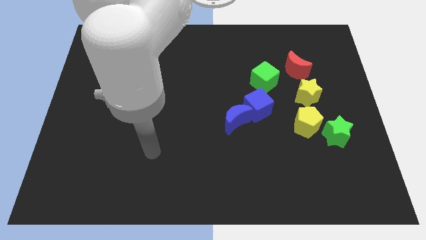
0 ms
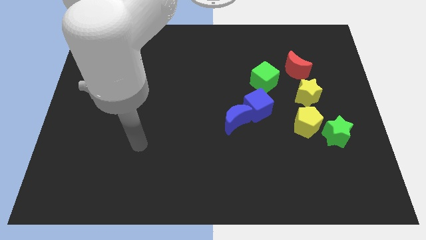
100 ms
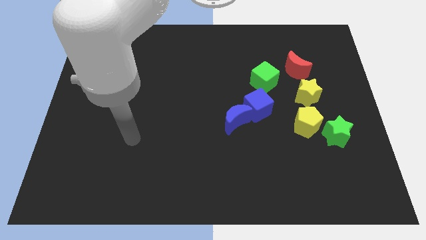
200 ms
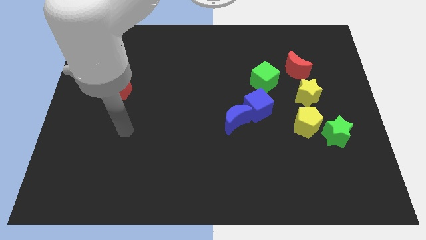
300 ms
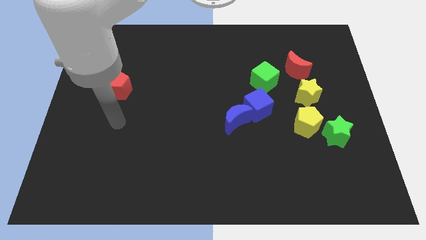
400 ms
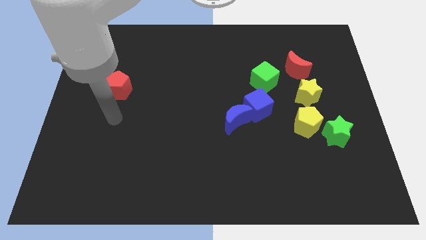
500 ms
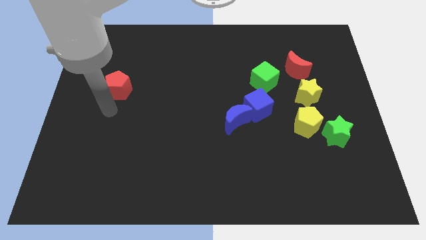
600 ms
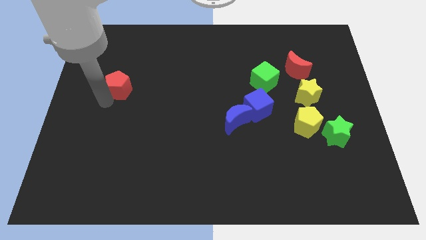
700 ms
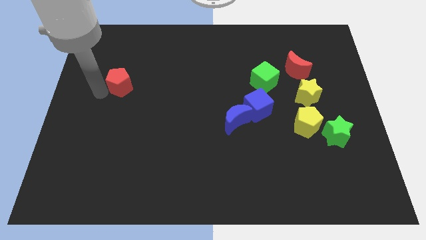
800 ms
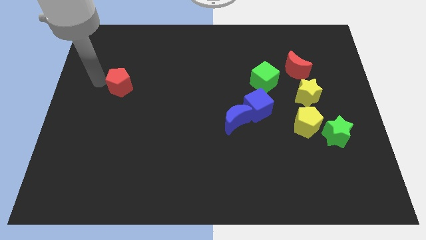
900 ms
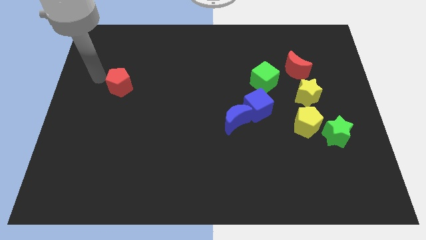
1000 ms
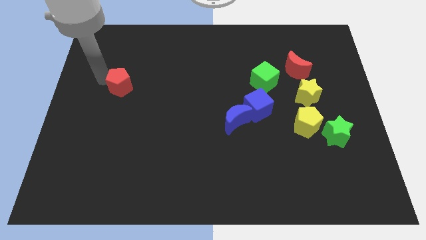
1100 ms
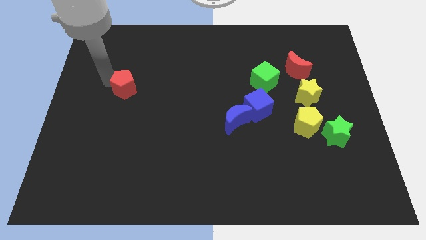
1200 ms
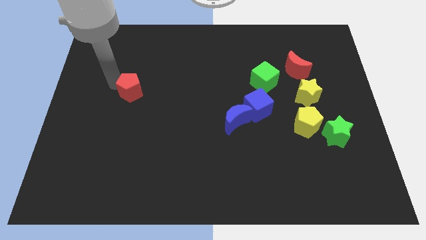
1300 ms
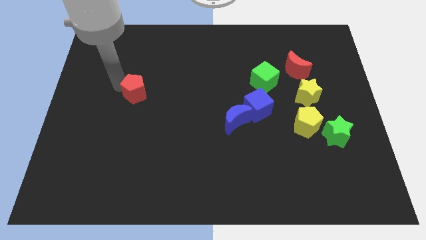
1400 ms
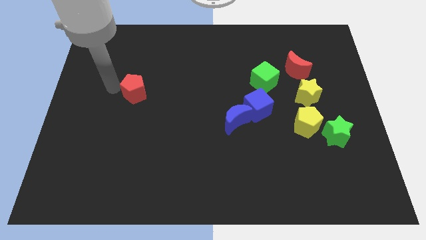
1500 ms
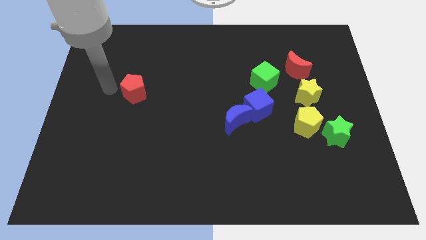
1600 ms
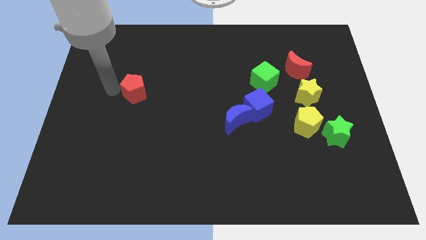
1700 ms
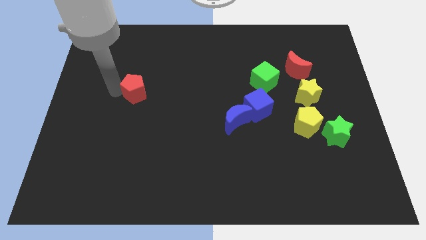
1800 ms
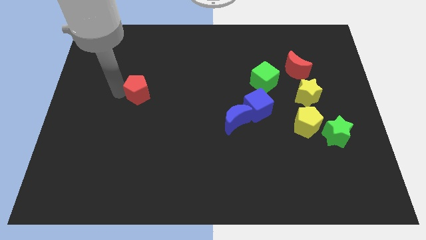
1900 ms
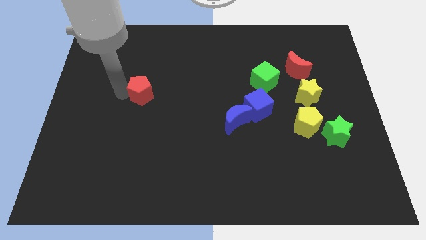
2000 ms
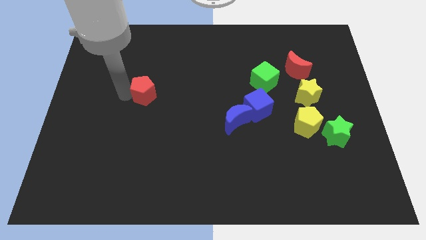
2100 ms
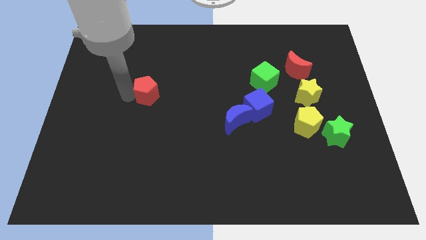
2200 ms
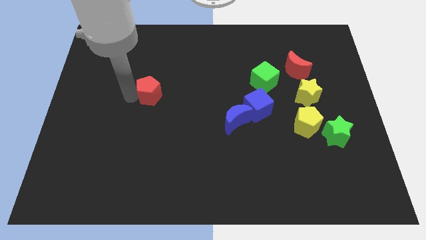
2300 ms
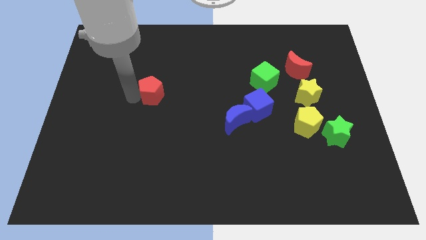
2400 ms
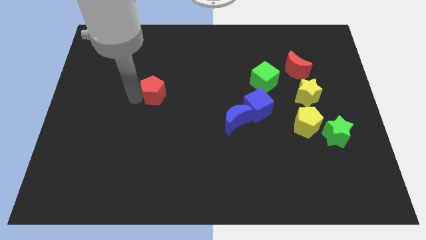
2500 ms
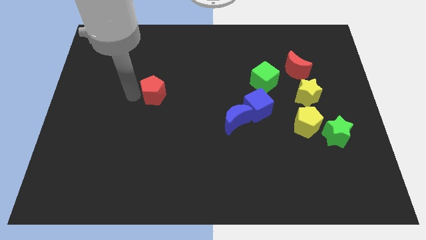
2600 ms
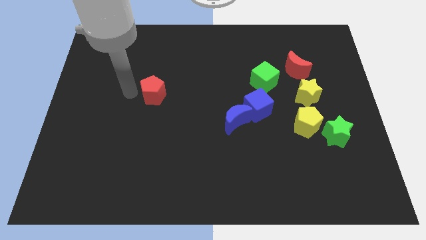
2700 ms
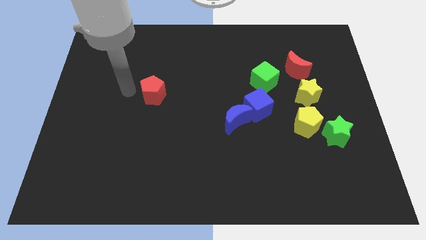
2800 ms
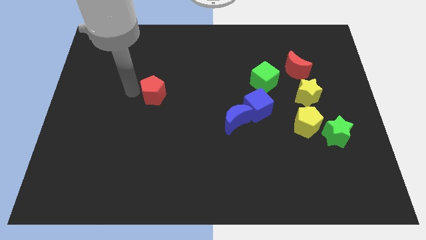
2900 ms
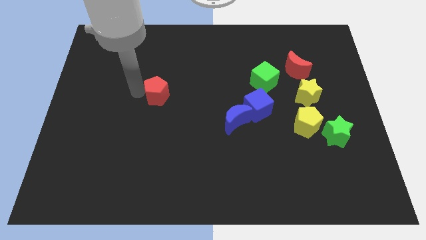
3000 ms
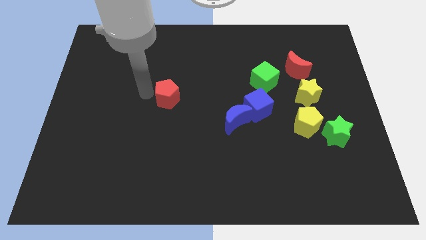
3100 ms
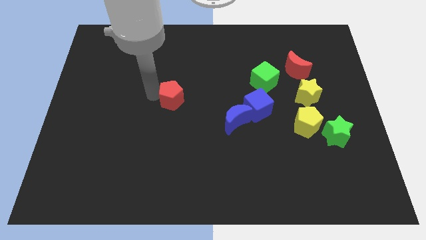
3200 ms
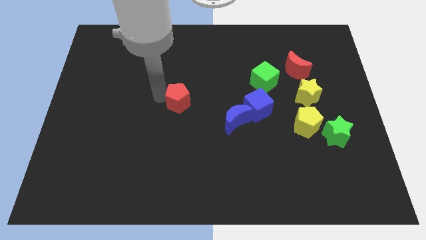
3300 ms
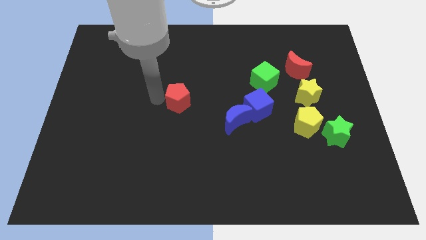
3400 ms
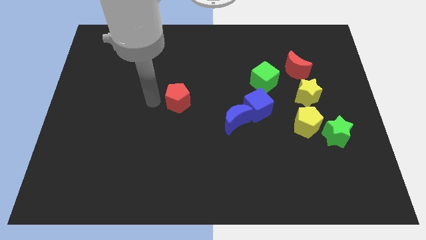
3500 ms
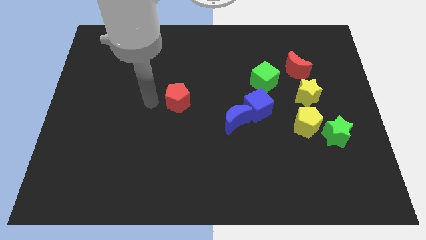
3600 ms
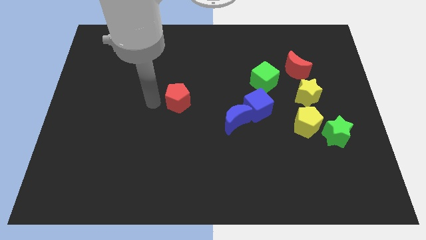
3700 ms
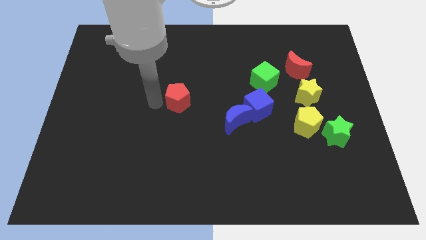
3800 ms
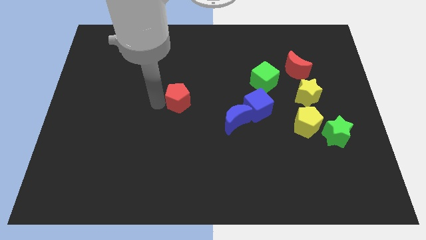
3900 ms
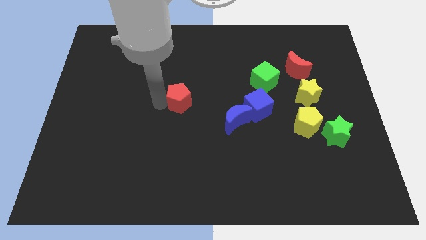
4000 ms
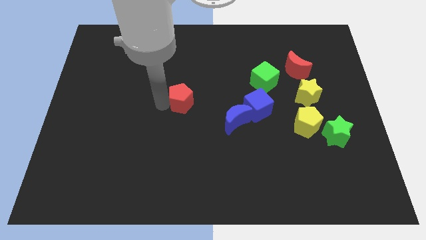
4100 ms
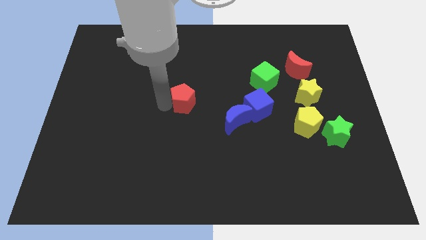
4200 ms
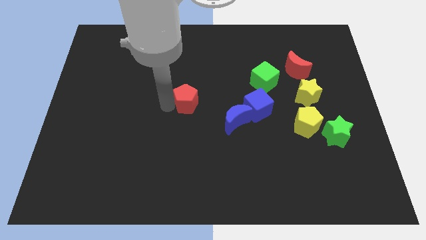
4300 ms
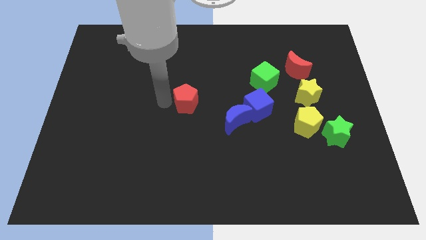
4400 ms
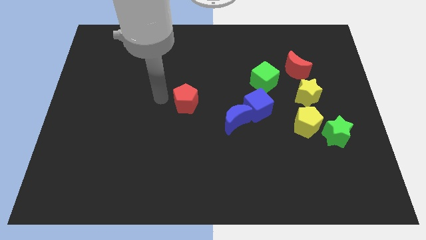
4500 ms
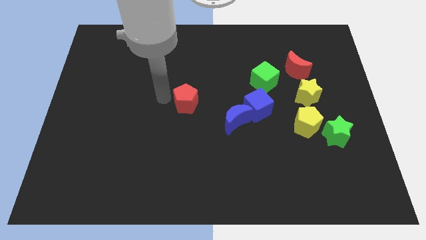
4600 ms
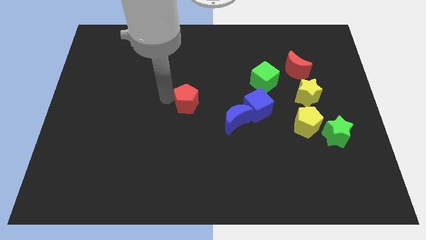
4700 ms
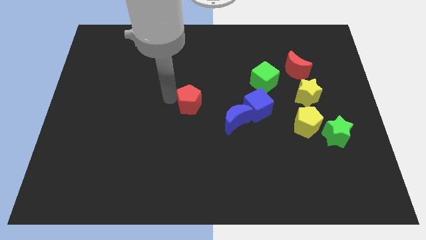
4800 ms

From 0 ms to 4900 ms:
move the red pentagon to the left of the blue cube

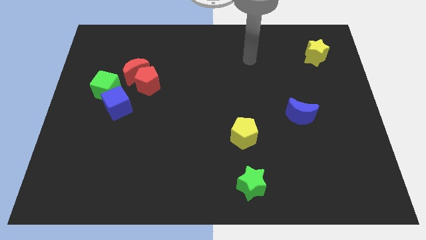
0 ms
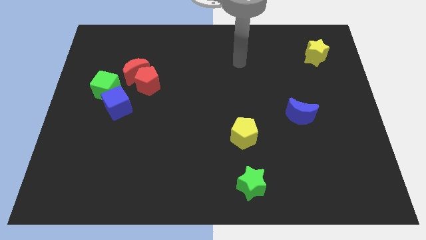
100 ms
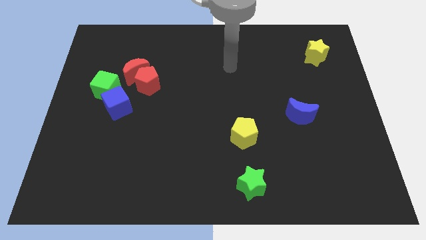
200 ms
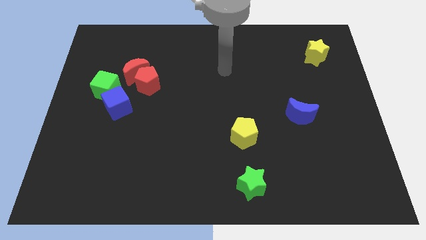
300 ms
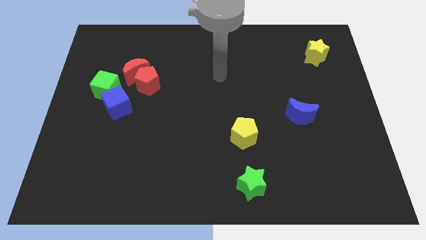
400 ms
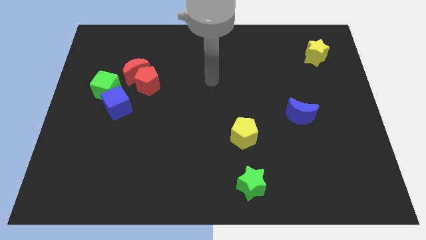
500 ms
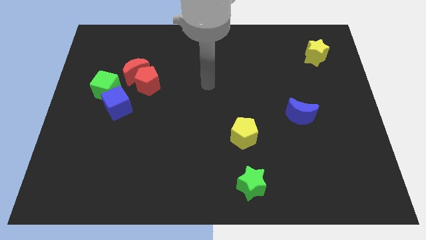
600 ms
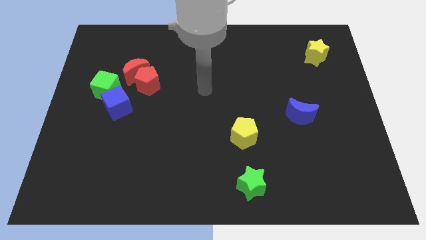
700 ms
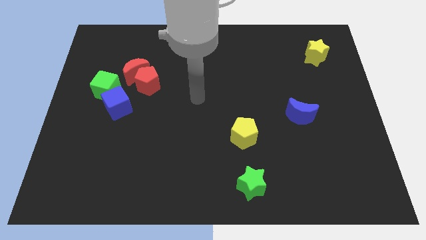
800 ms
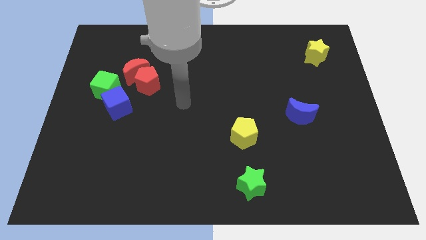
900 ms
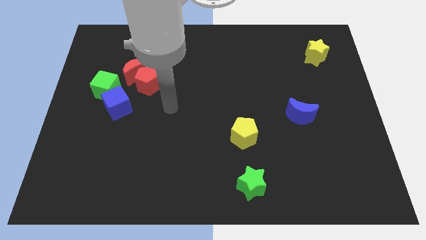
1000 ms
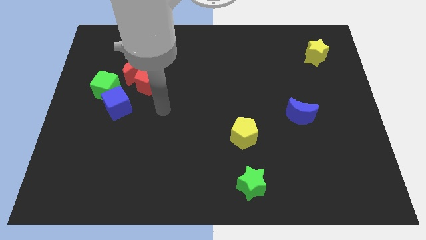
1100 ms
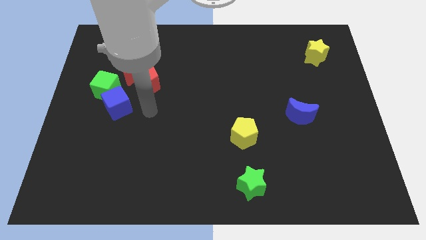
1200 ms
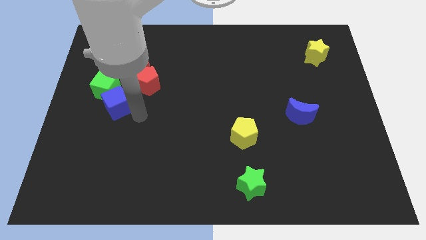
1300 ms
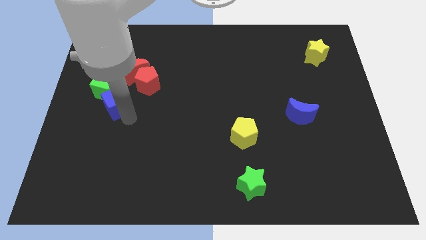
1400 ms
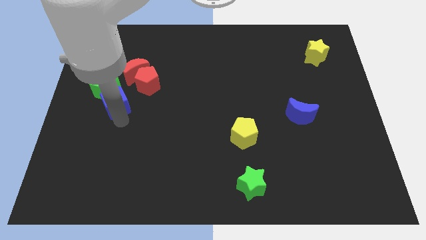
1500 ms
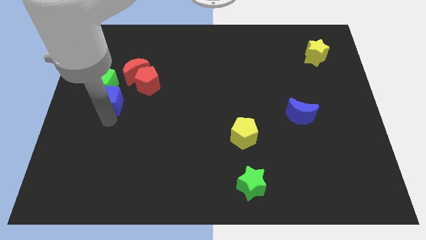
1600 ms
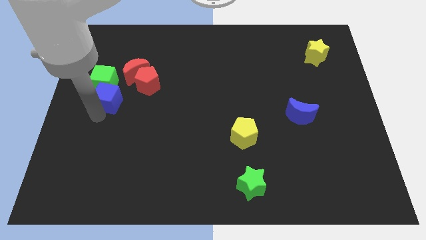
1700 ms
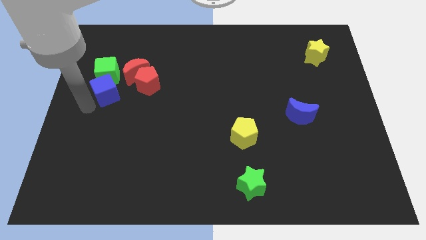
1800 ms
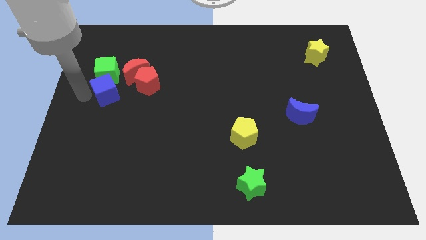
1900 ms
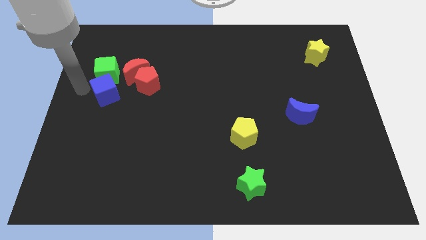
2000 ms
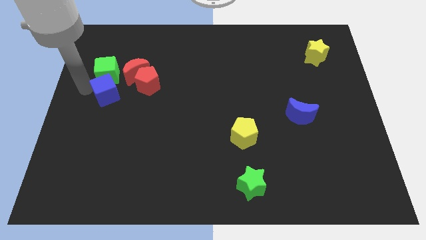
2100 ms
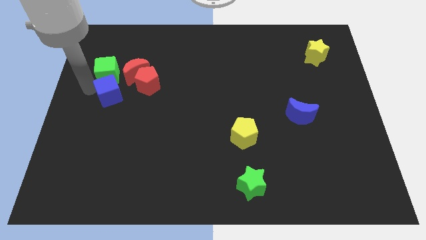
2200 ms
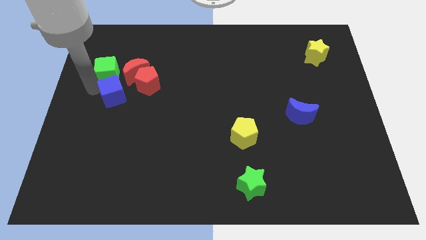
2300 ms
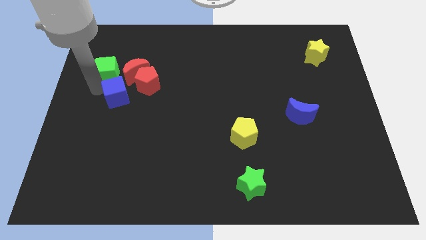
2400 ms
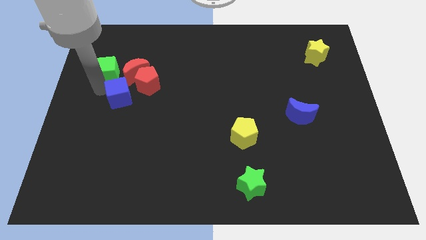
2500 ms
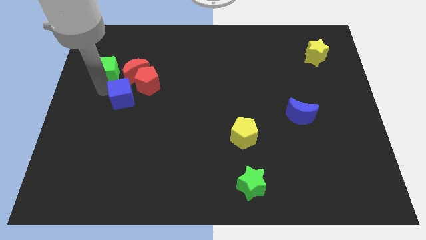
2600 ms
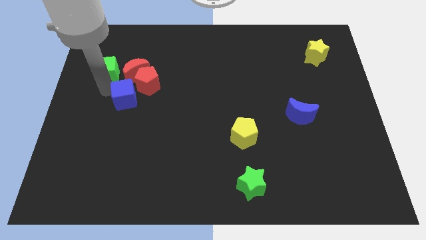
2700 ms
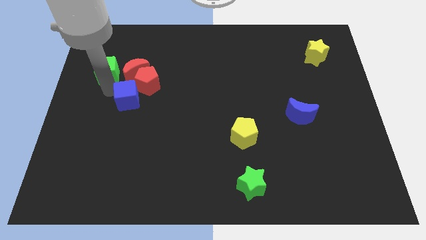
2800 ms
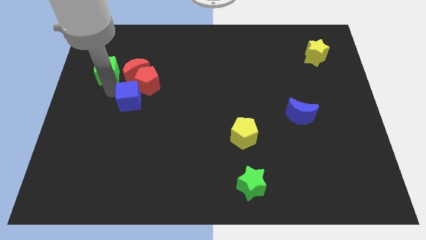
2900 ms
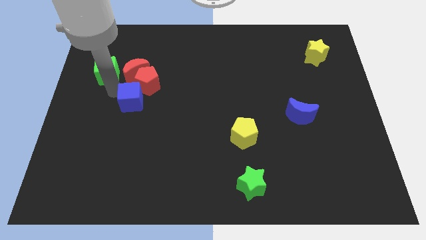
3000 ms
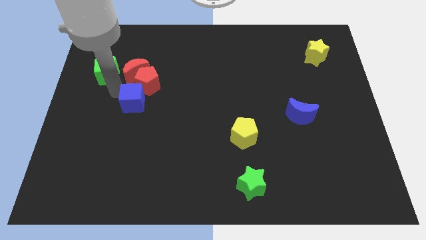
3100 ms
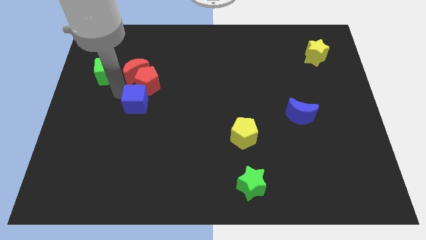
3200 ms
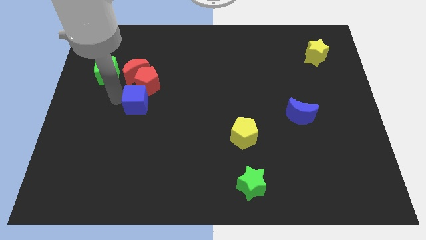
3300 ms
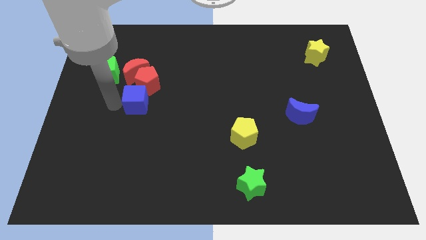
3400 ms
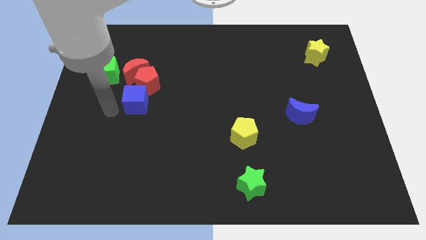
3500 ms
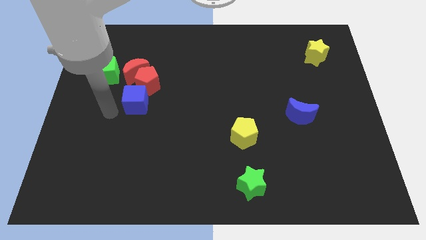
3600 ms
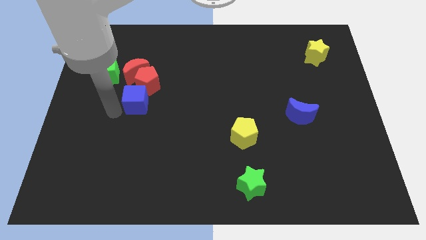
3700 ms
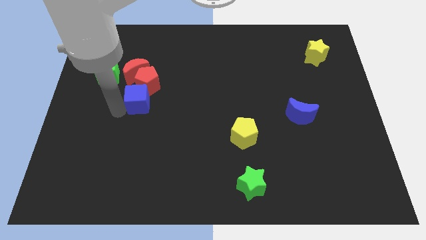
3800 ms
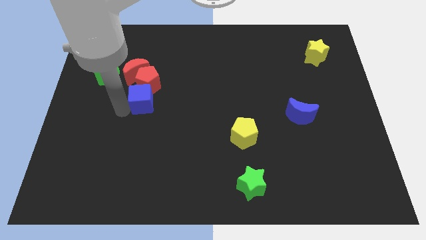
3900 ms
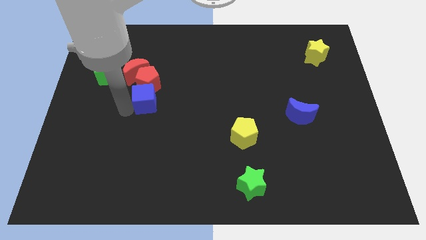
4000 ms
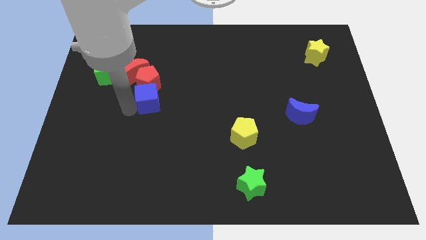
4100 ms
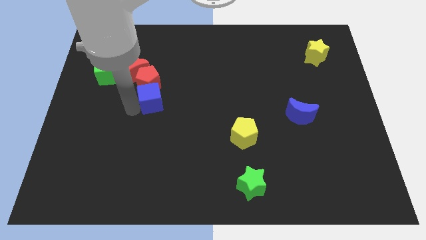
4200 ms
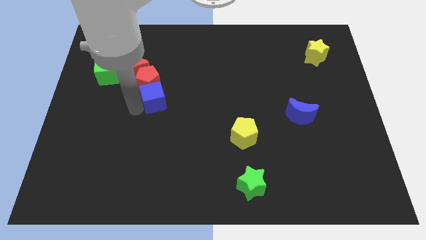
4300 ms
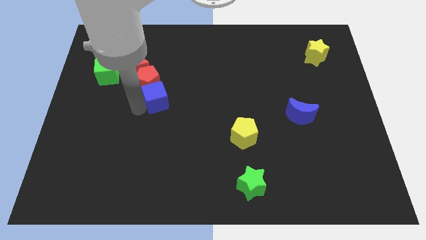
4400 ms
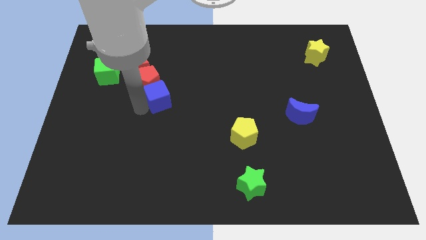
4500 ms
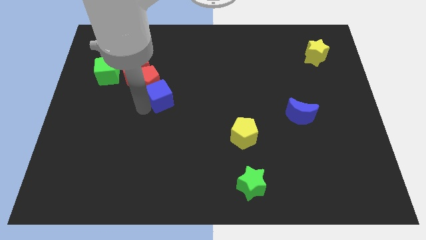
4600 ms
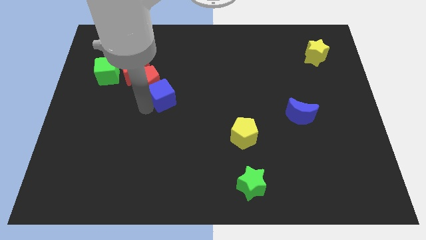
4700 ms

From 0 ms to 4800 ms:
put the blue cube right of the red pentagon
